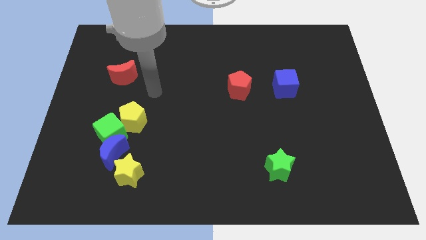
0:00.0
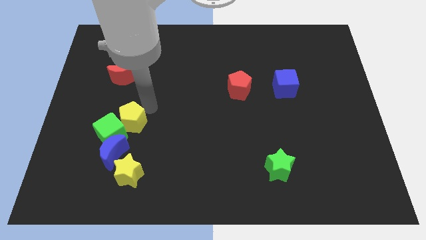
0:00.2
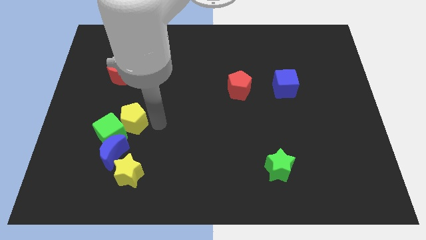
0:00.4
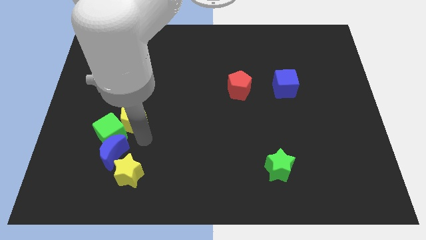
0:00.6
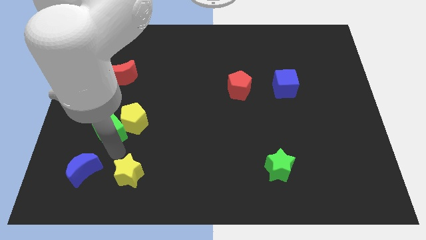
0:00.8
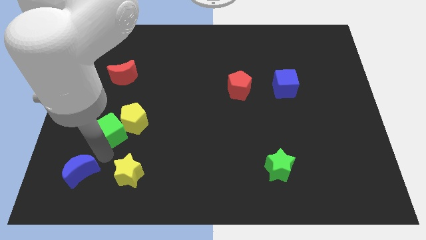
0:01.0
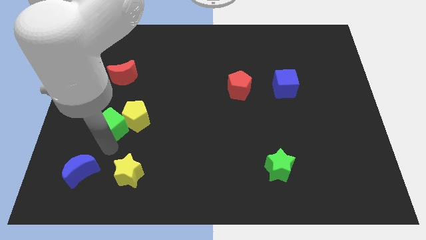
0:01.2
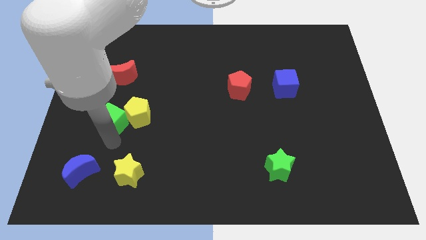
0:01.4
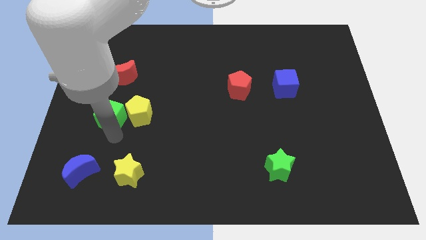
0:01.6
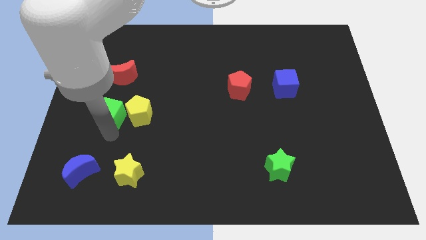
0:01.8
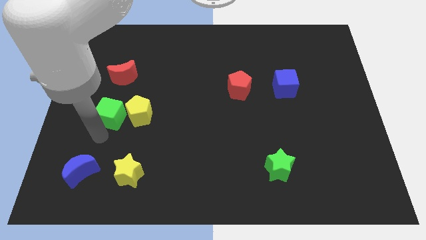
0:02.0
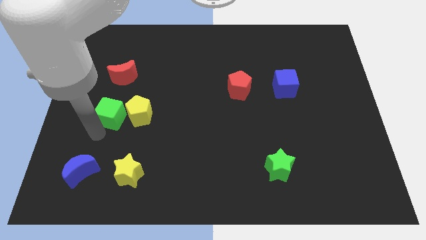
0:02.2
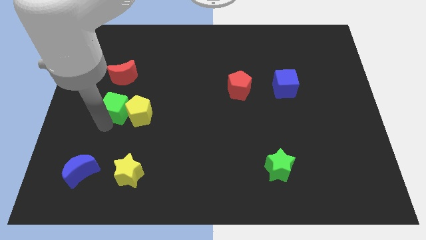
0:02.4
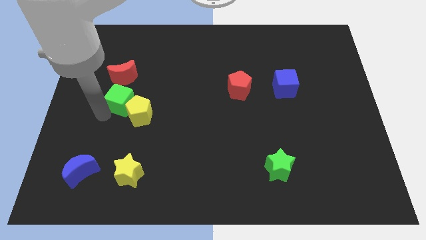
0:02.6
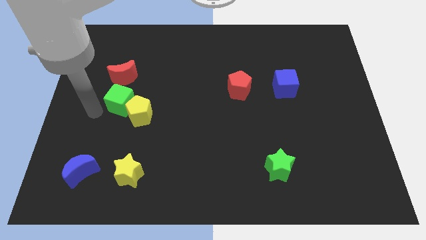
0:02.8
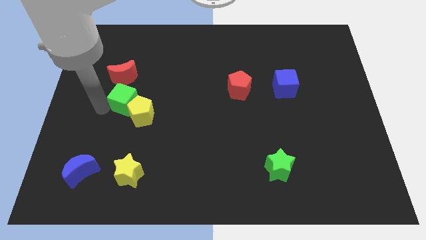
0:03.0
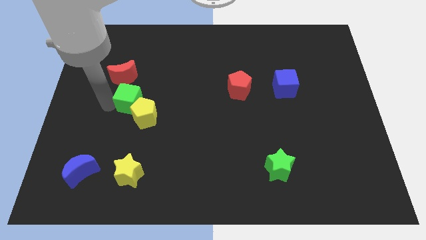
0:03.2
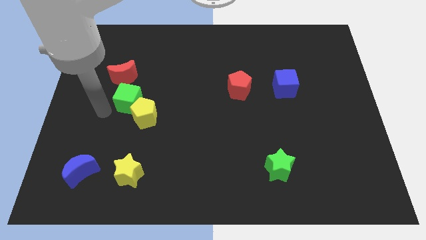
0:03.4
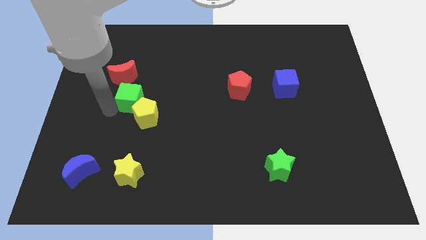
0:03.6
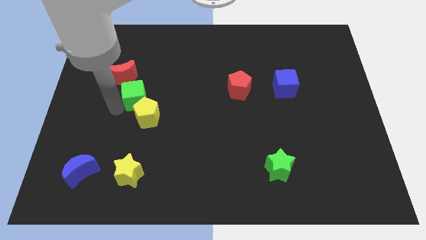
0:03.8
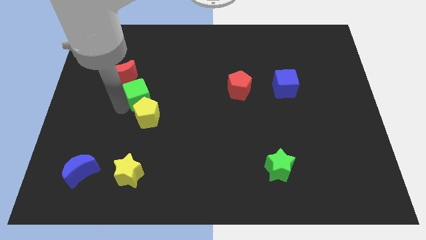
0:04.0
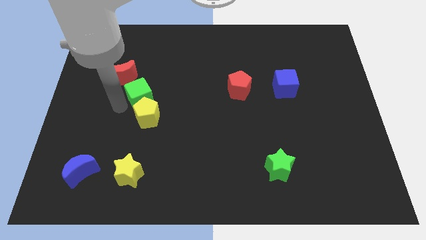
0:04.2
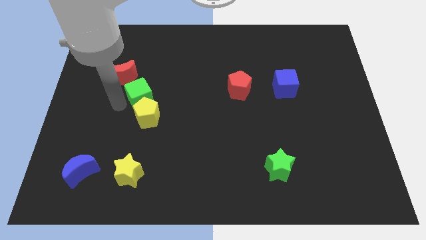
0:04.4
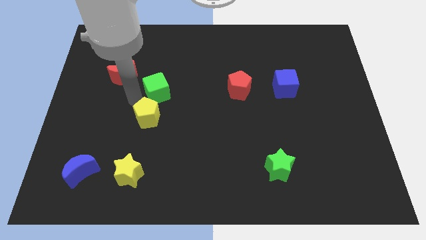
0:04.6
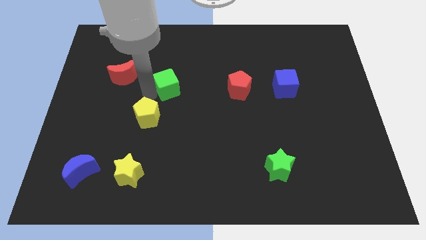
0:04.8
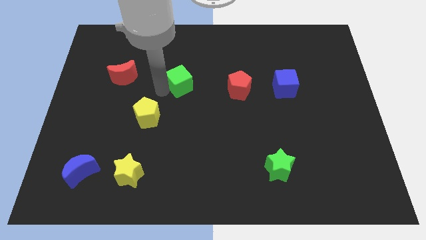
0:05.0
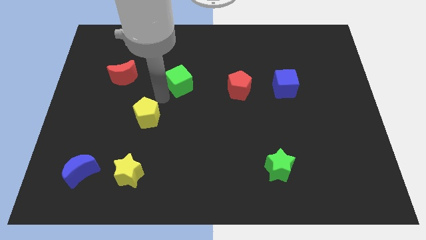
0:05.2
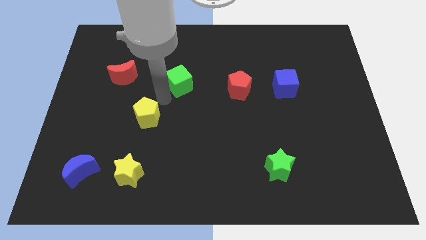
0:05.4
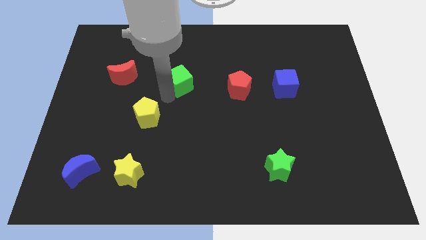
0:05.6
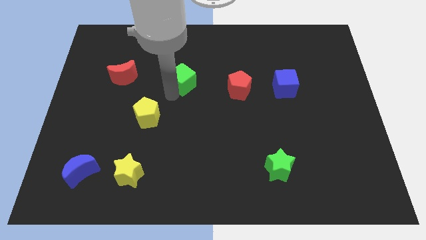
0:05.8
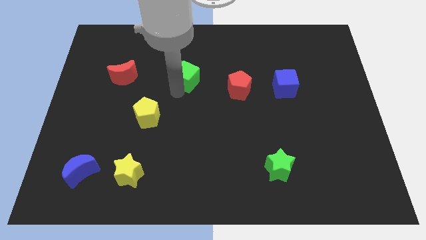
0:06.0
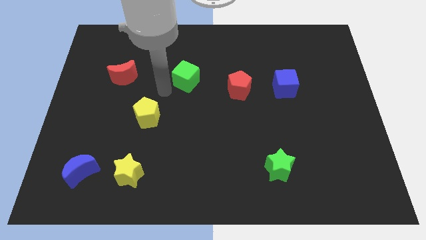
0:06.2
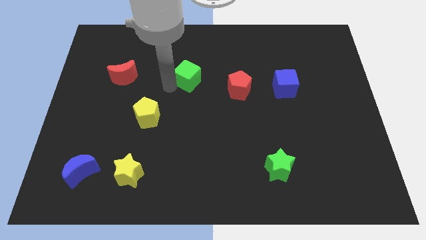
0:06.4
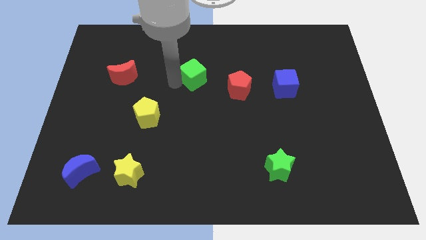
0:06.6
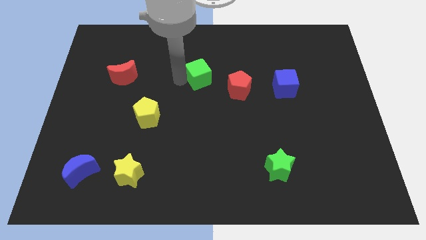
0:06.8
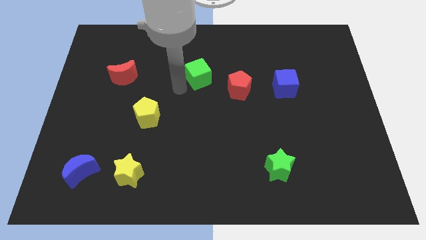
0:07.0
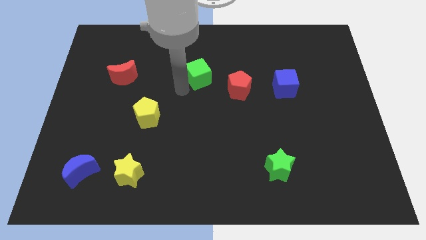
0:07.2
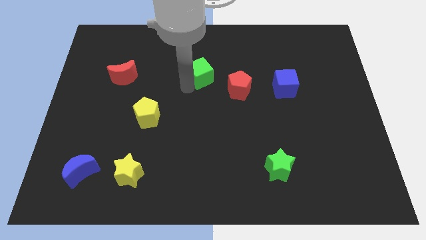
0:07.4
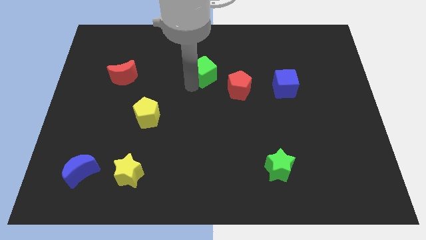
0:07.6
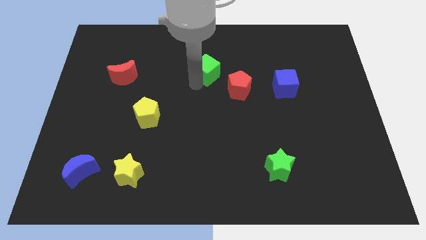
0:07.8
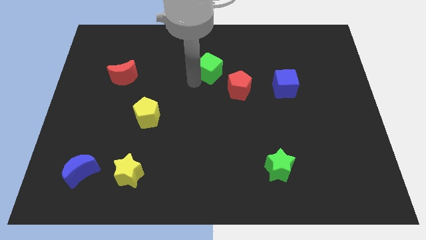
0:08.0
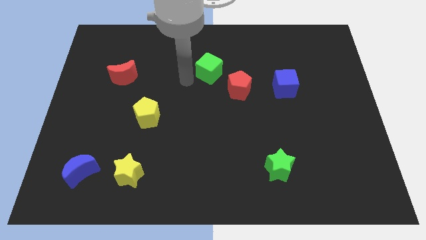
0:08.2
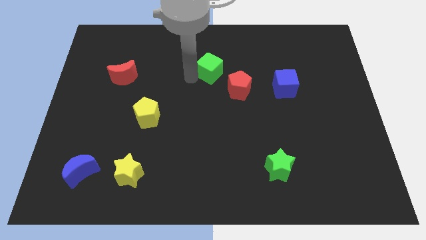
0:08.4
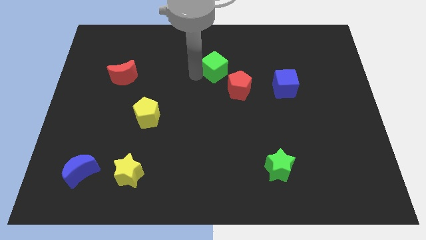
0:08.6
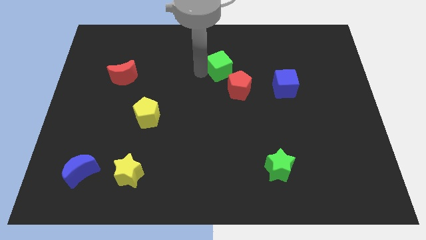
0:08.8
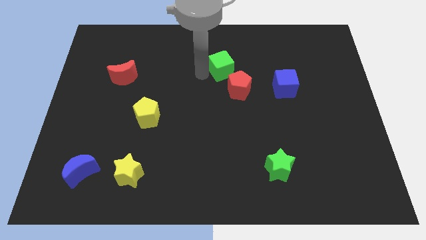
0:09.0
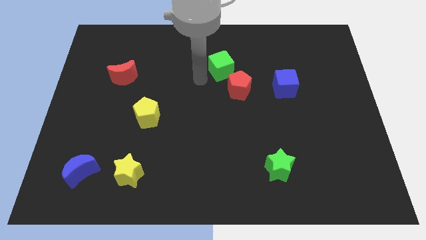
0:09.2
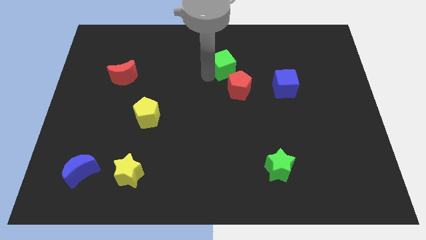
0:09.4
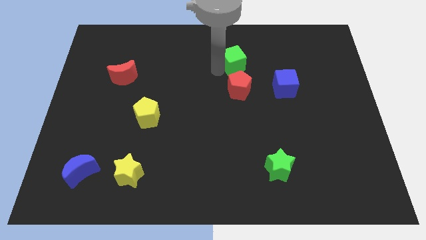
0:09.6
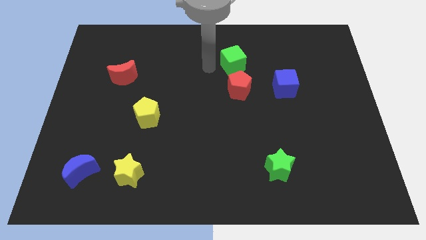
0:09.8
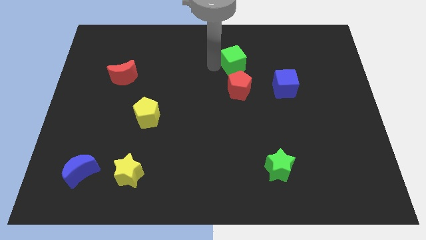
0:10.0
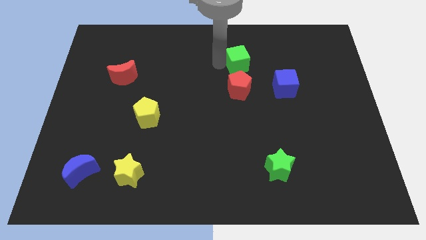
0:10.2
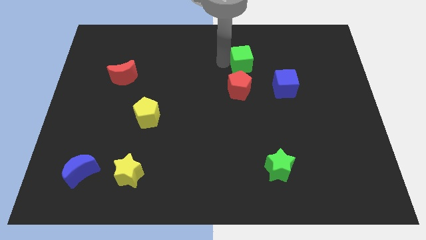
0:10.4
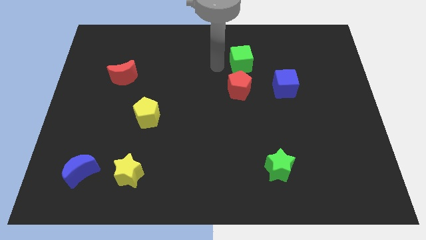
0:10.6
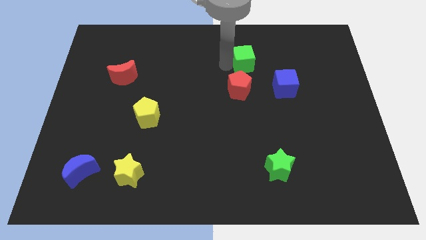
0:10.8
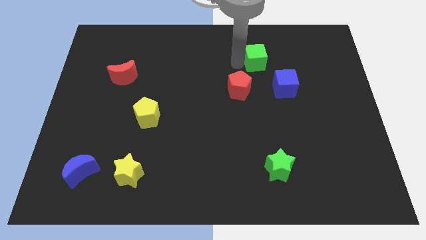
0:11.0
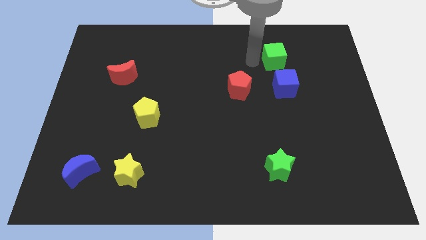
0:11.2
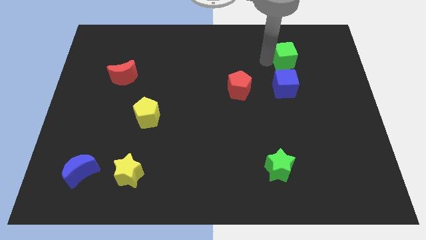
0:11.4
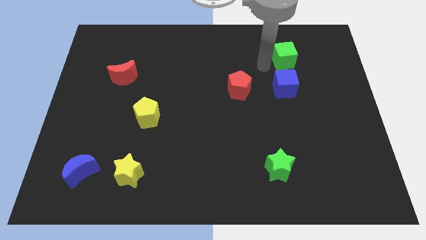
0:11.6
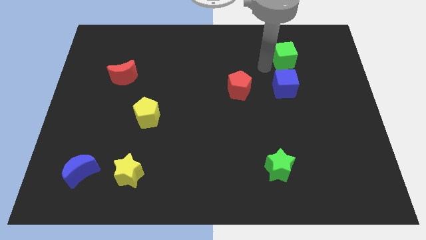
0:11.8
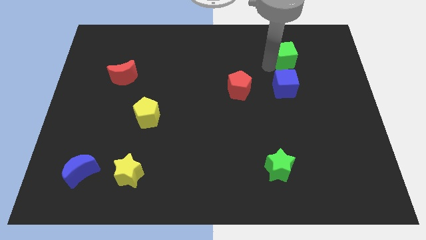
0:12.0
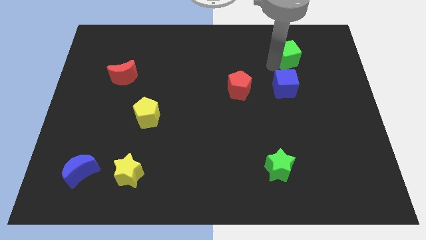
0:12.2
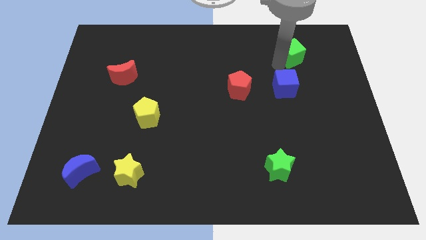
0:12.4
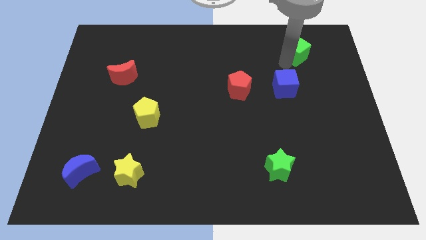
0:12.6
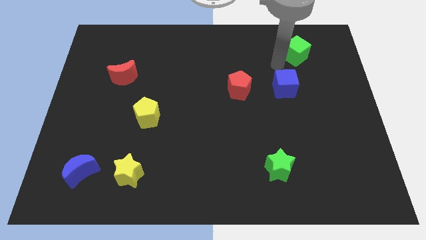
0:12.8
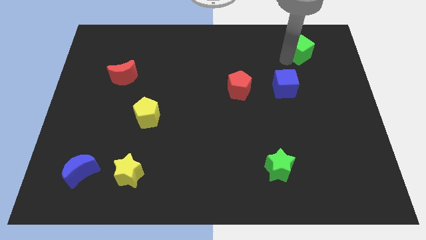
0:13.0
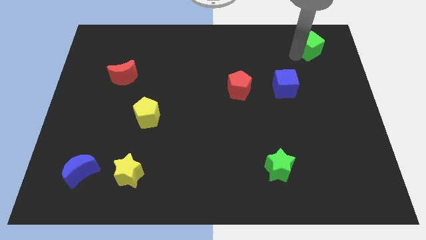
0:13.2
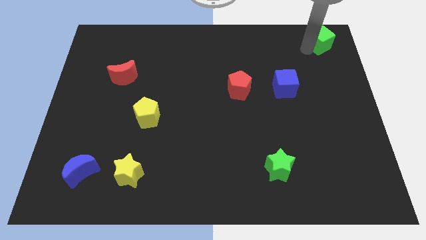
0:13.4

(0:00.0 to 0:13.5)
move the green cube to the top right of the board
